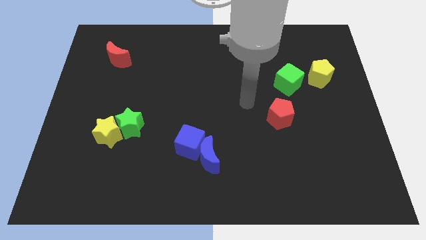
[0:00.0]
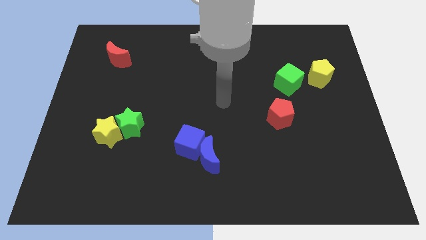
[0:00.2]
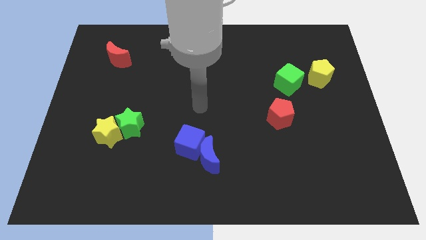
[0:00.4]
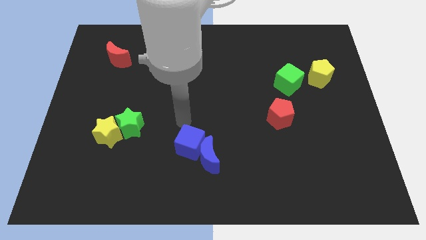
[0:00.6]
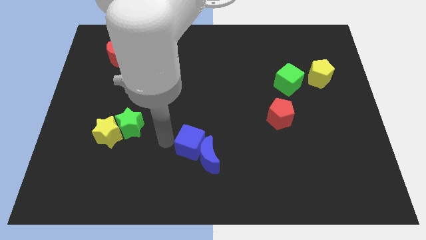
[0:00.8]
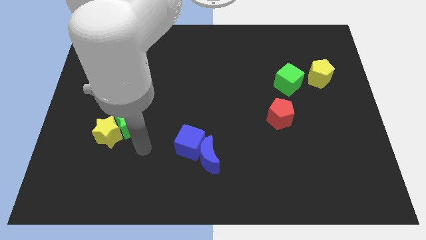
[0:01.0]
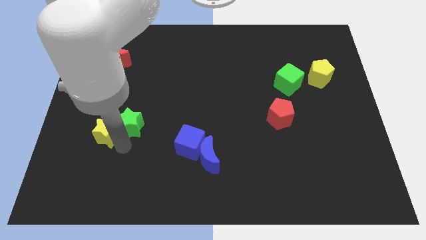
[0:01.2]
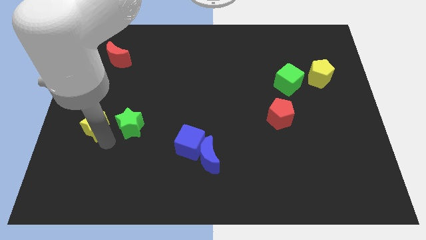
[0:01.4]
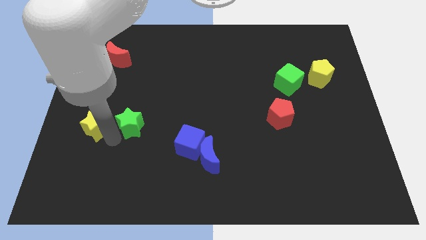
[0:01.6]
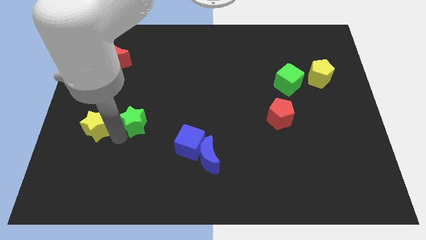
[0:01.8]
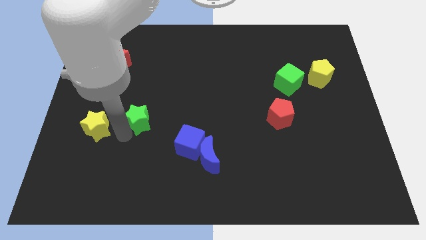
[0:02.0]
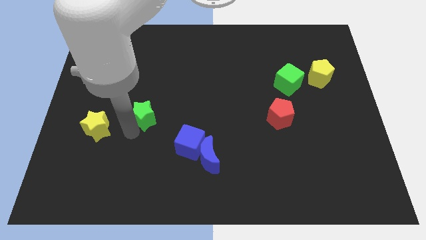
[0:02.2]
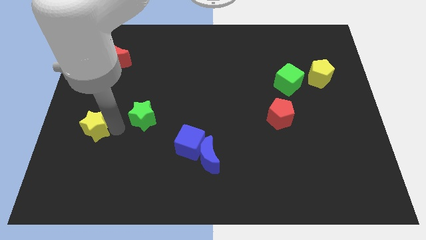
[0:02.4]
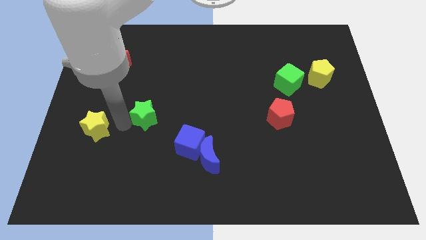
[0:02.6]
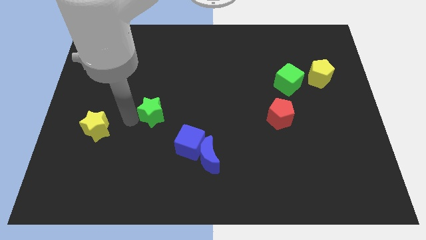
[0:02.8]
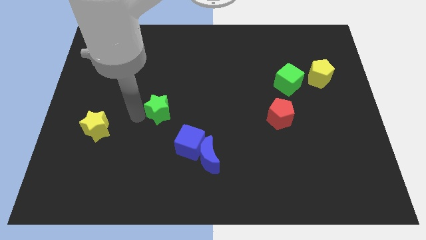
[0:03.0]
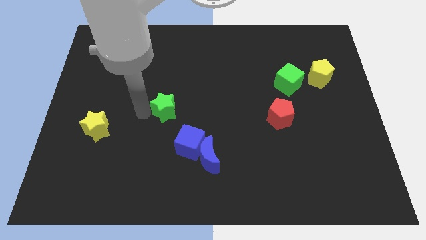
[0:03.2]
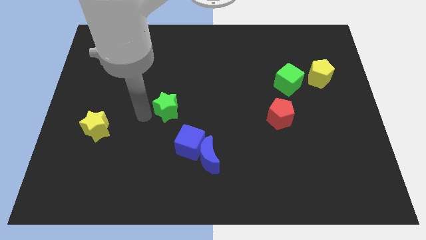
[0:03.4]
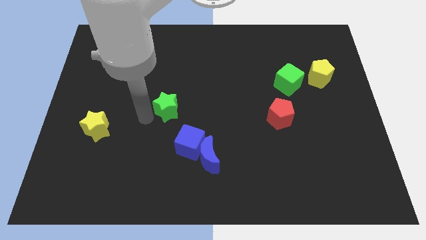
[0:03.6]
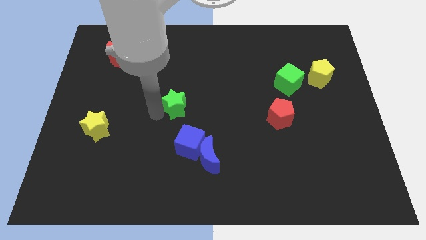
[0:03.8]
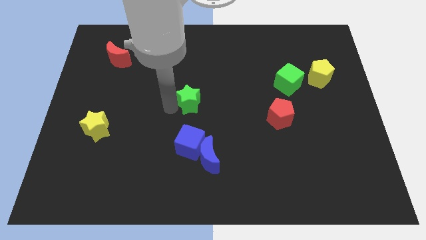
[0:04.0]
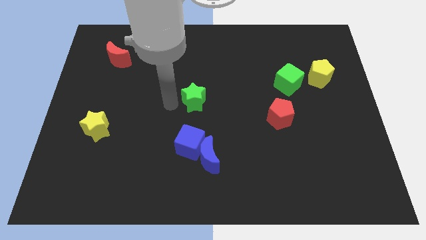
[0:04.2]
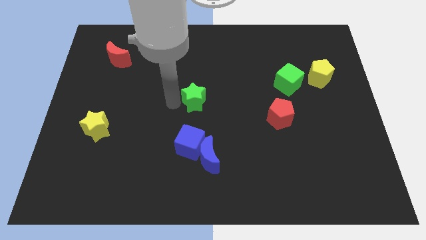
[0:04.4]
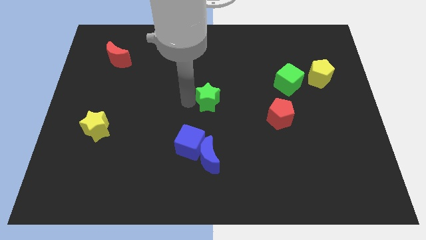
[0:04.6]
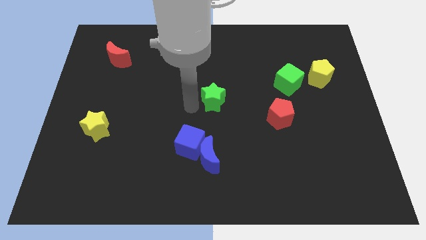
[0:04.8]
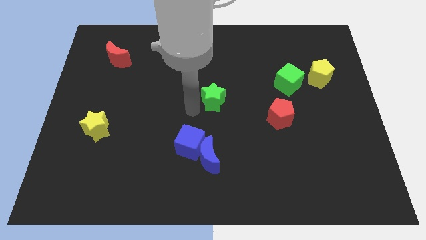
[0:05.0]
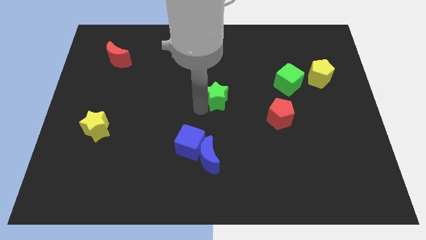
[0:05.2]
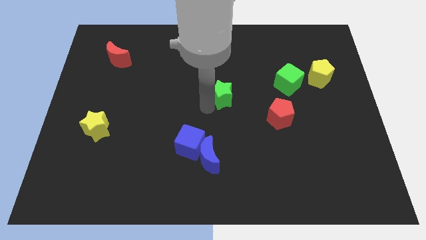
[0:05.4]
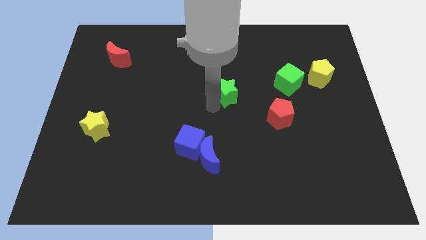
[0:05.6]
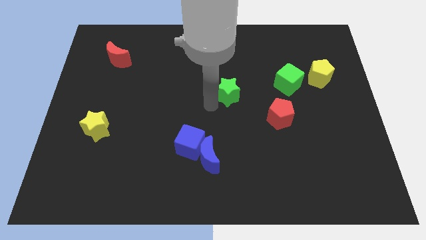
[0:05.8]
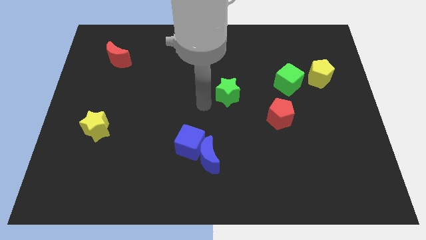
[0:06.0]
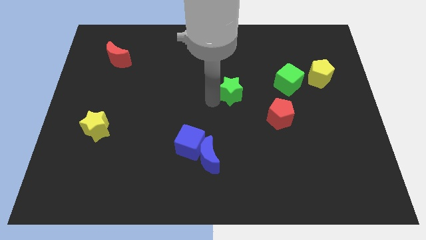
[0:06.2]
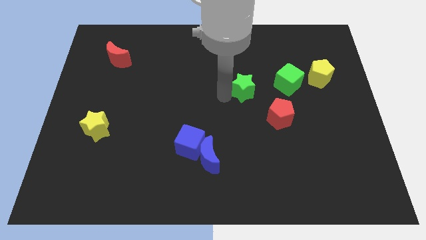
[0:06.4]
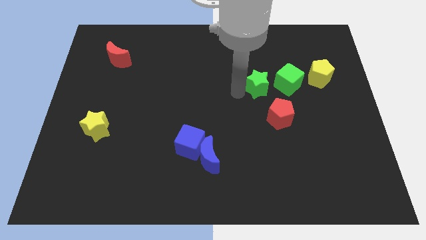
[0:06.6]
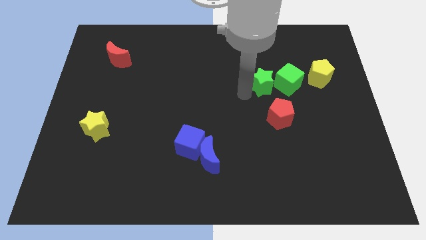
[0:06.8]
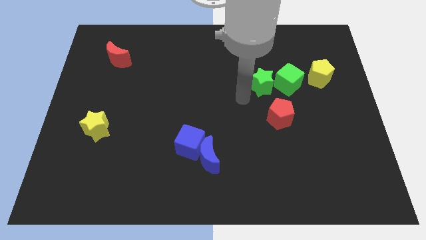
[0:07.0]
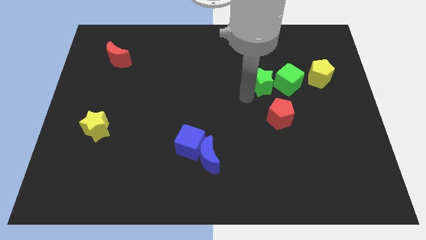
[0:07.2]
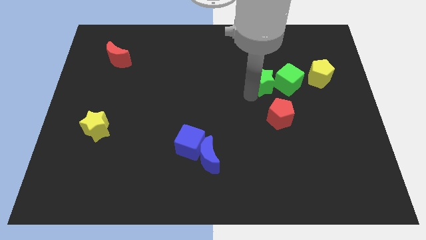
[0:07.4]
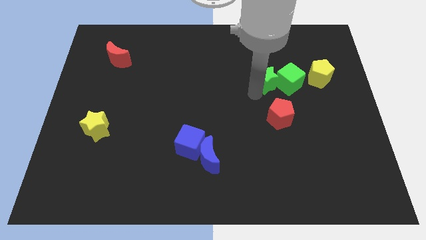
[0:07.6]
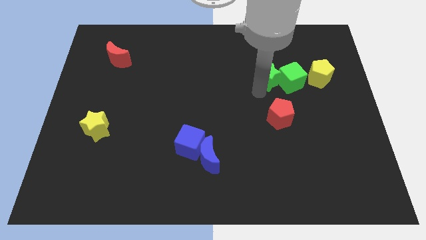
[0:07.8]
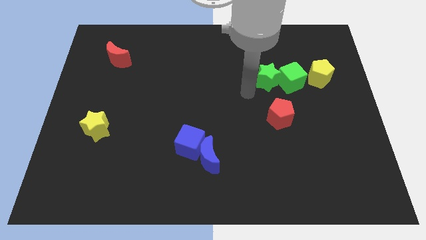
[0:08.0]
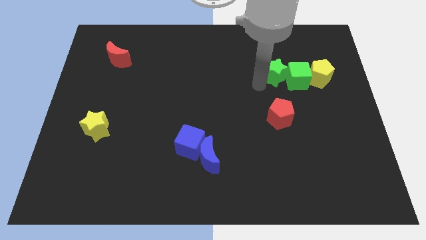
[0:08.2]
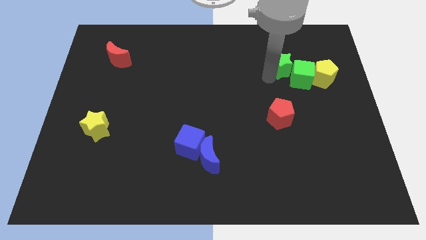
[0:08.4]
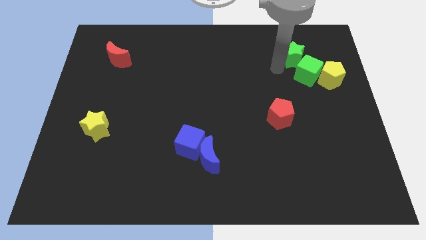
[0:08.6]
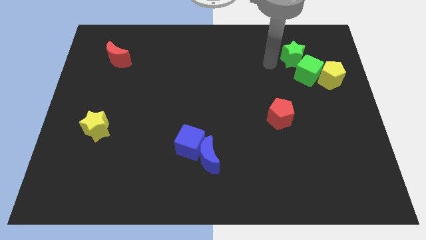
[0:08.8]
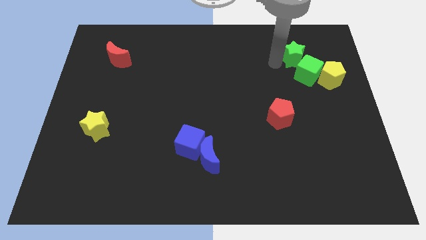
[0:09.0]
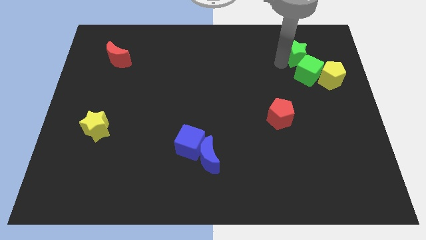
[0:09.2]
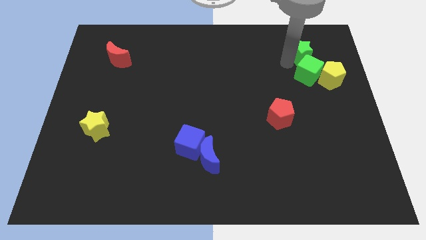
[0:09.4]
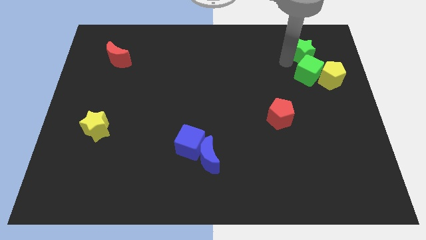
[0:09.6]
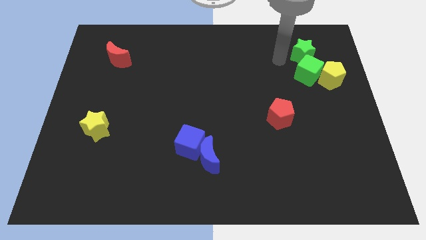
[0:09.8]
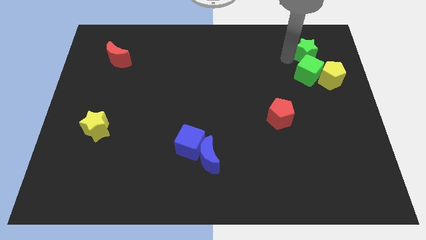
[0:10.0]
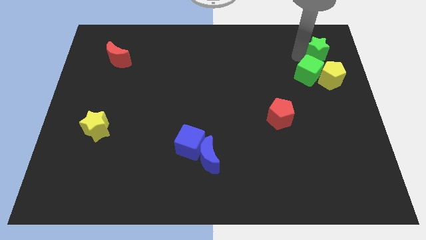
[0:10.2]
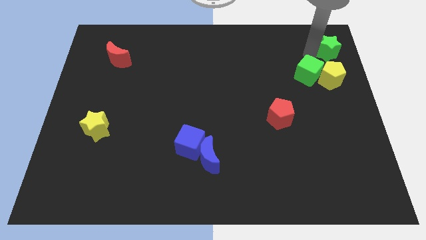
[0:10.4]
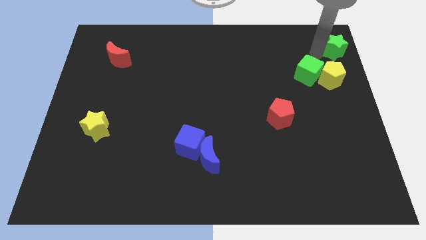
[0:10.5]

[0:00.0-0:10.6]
push the green star to the upper right corner
